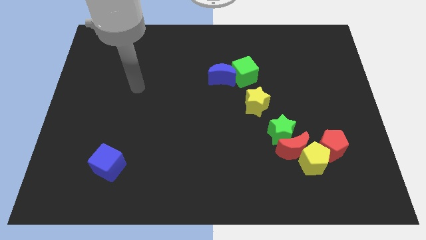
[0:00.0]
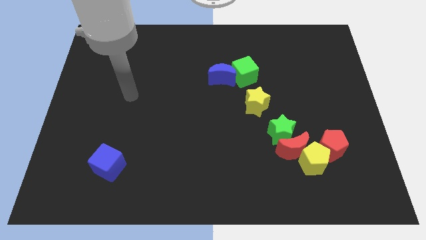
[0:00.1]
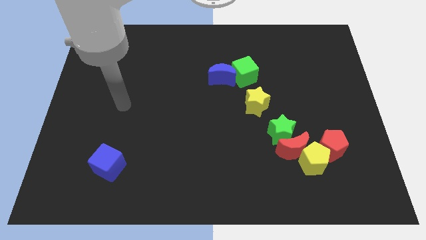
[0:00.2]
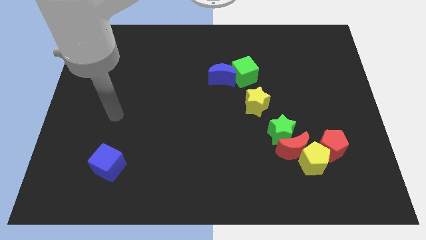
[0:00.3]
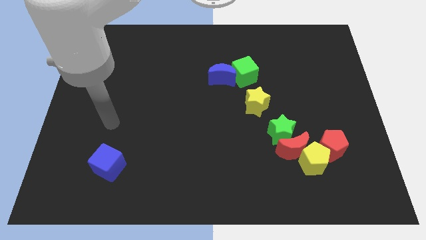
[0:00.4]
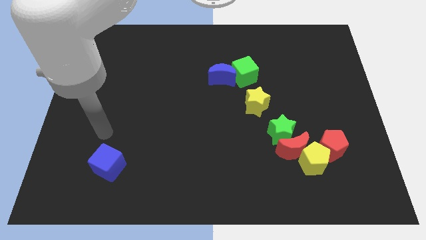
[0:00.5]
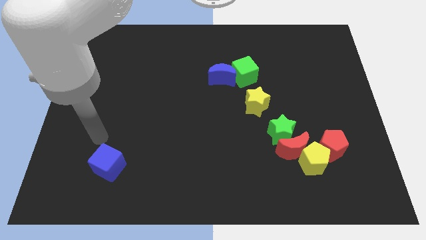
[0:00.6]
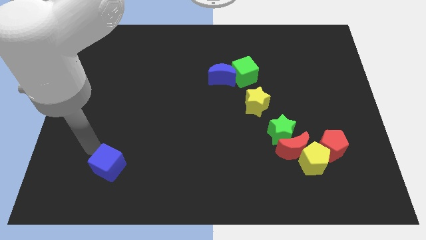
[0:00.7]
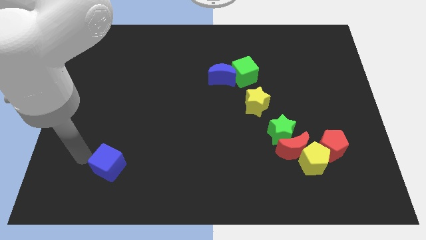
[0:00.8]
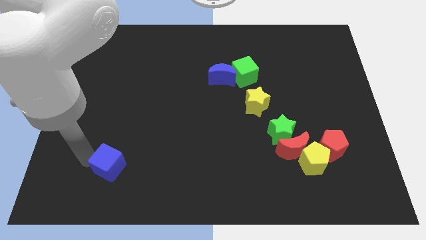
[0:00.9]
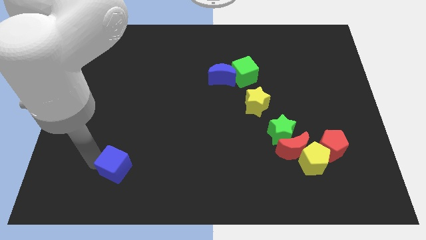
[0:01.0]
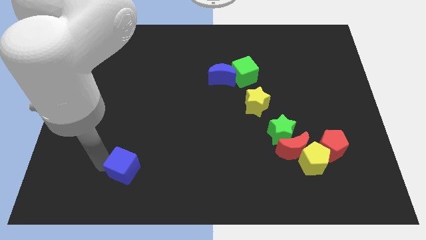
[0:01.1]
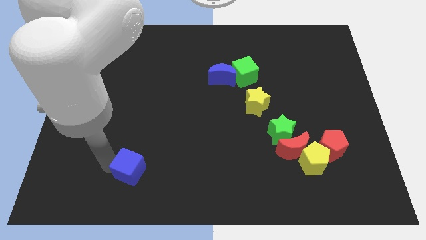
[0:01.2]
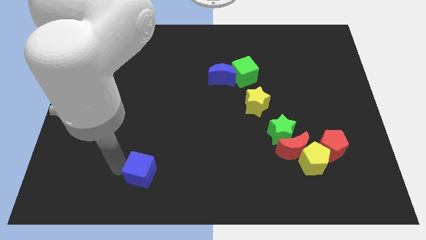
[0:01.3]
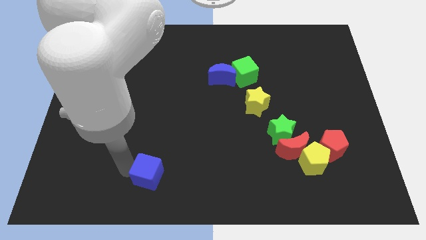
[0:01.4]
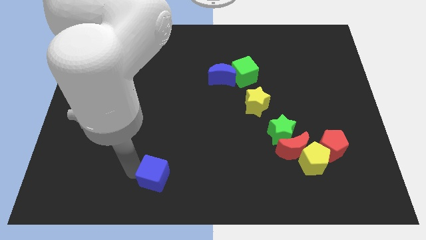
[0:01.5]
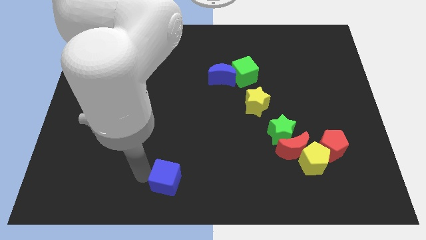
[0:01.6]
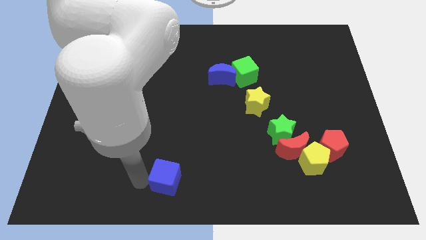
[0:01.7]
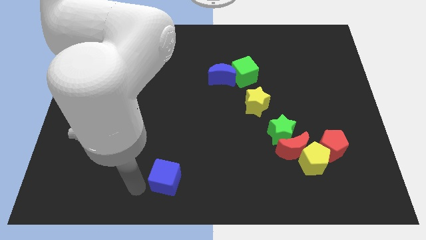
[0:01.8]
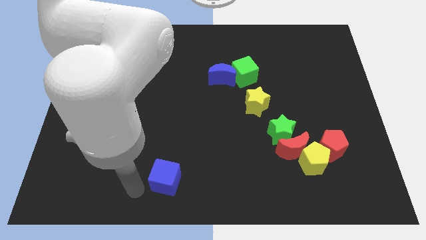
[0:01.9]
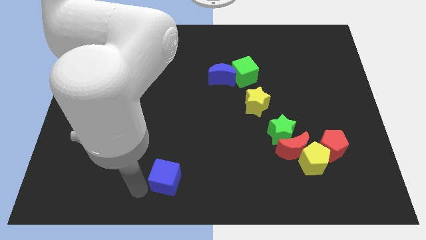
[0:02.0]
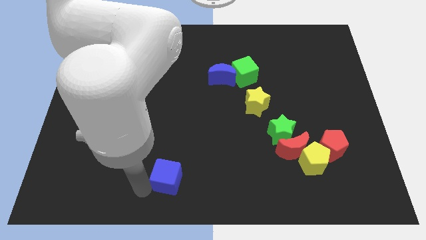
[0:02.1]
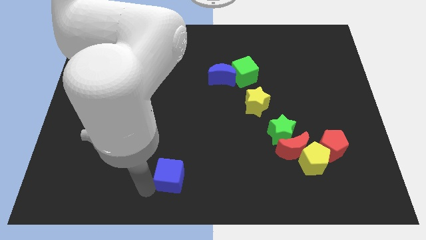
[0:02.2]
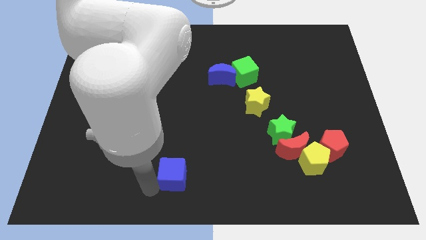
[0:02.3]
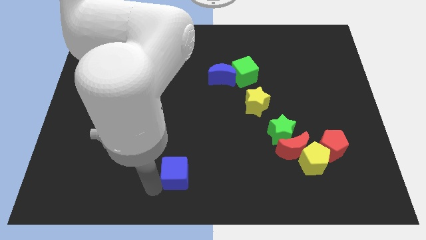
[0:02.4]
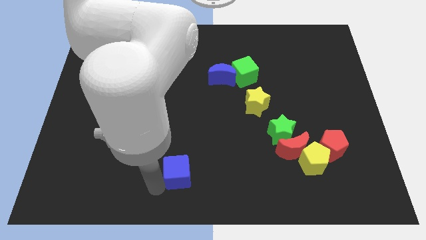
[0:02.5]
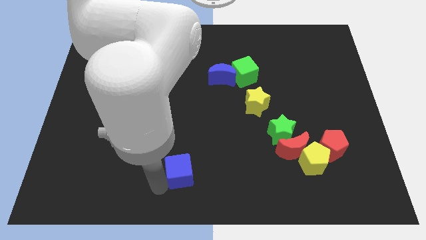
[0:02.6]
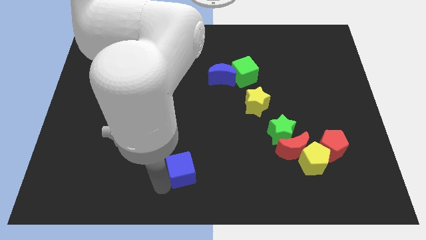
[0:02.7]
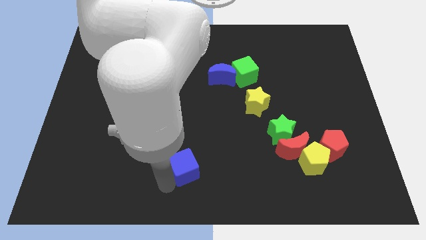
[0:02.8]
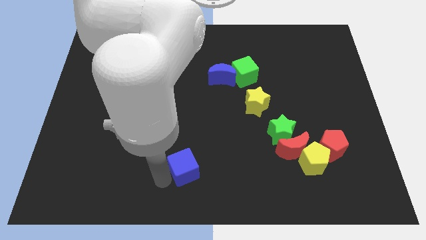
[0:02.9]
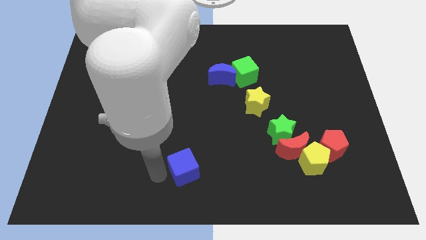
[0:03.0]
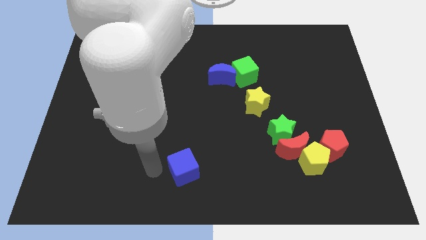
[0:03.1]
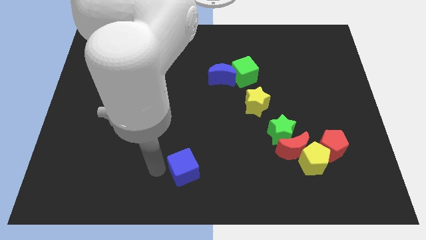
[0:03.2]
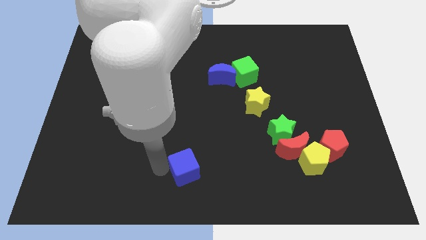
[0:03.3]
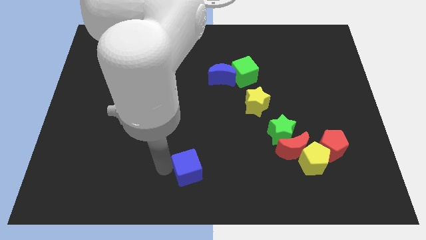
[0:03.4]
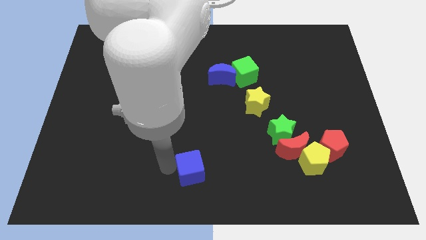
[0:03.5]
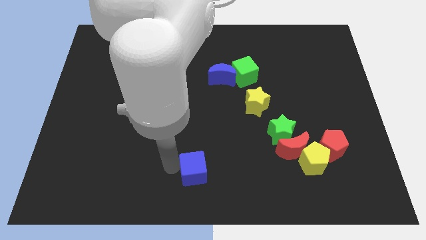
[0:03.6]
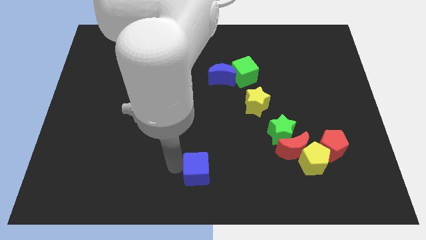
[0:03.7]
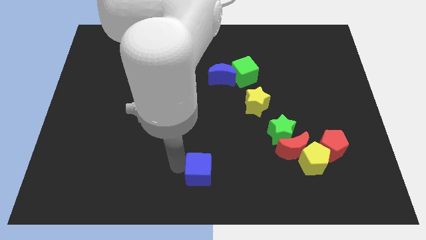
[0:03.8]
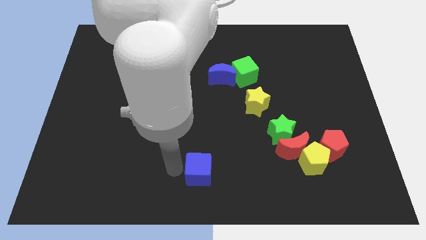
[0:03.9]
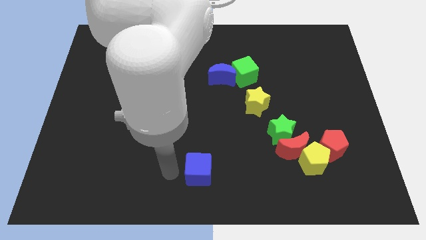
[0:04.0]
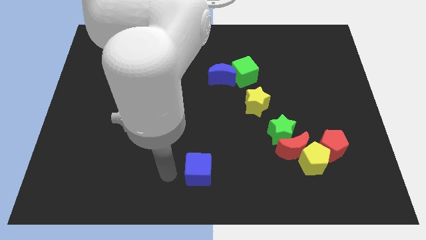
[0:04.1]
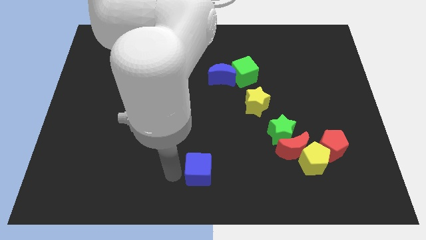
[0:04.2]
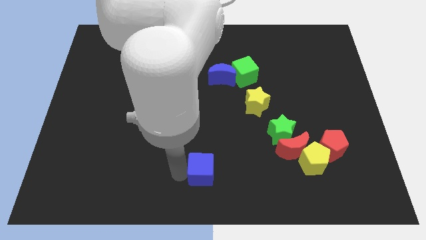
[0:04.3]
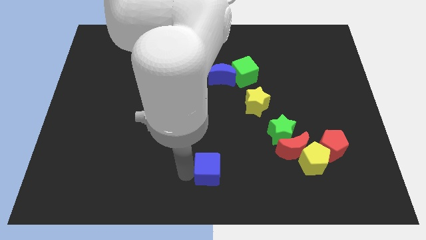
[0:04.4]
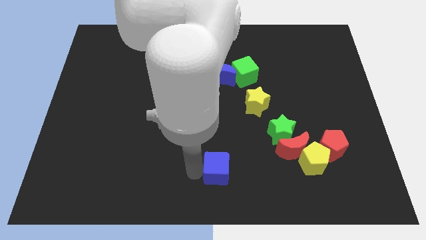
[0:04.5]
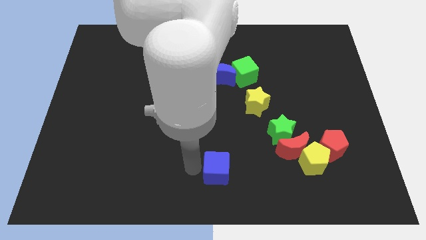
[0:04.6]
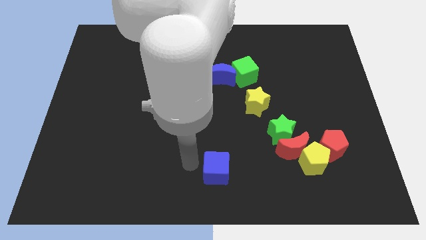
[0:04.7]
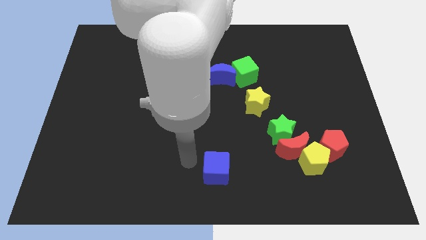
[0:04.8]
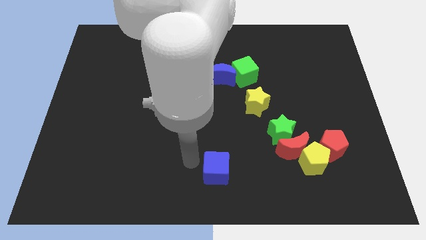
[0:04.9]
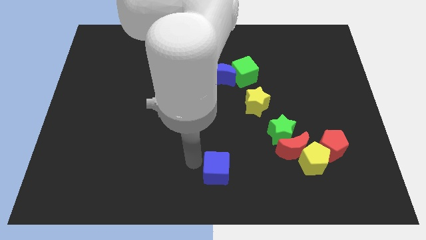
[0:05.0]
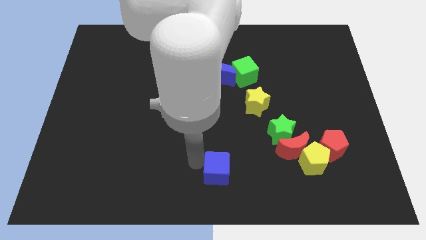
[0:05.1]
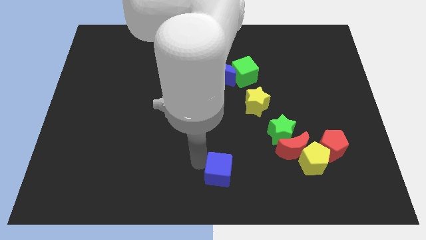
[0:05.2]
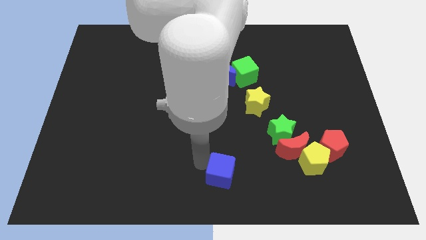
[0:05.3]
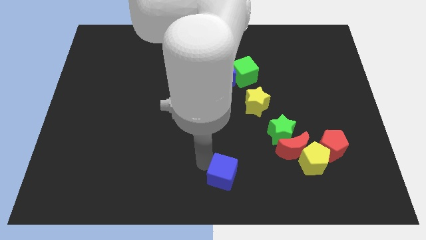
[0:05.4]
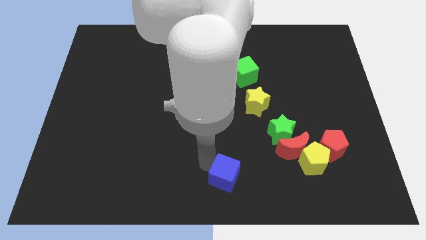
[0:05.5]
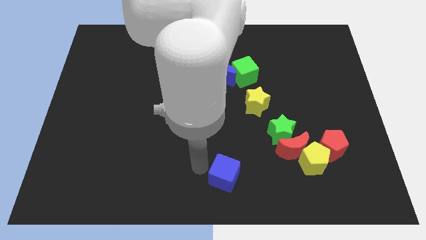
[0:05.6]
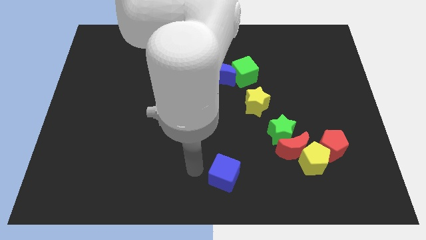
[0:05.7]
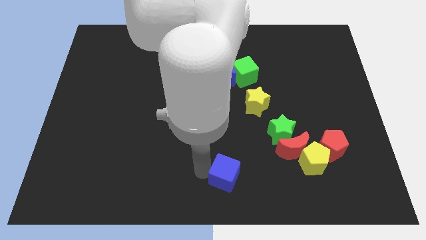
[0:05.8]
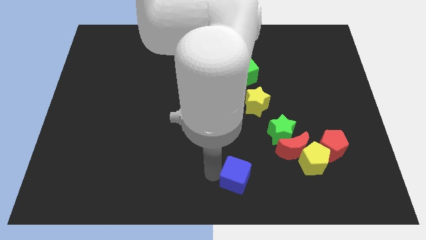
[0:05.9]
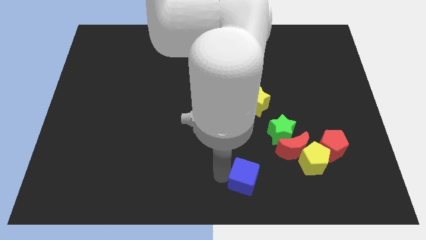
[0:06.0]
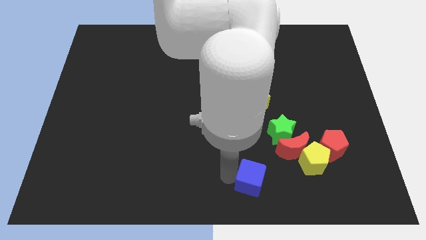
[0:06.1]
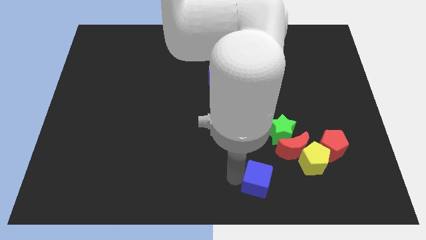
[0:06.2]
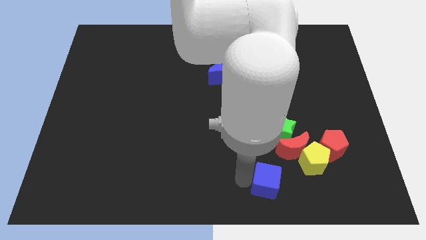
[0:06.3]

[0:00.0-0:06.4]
move the blue cube to the bottom left side of the yellow pentagon

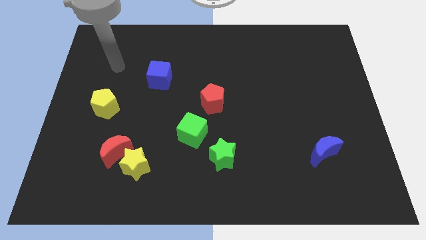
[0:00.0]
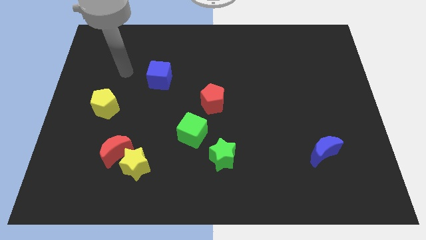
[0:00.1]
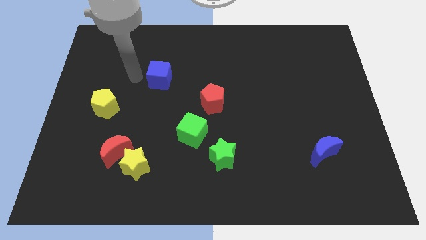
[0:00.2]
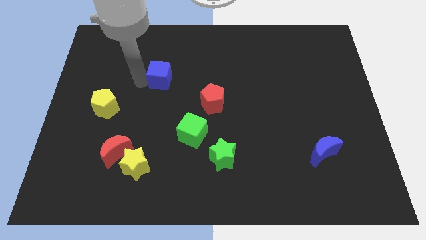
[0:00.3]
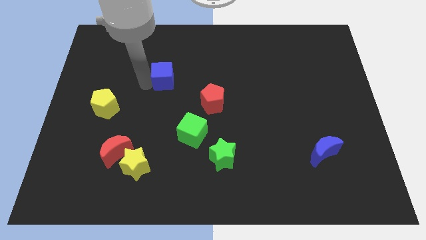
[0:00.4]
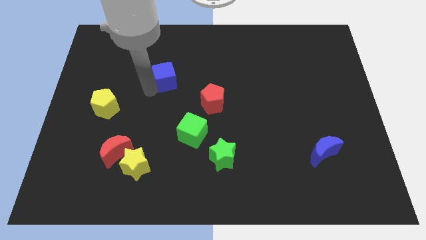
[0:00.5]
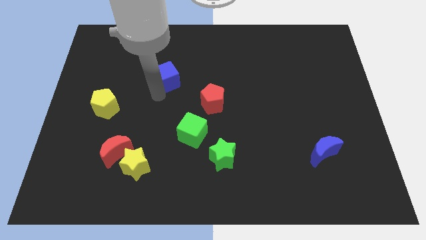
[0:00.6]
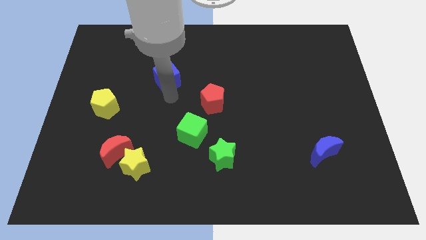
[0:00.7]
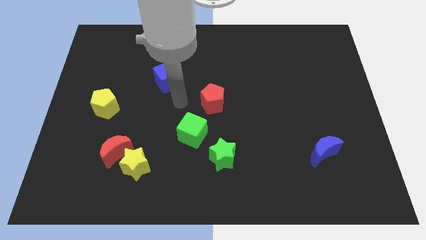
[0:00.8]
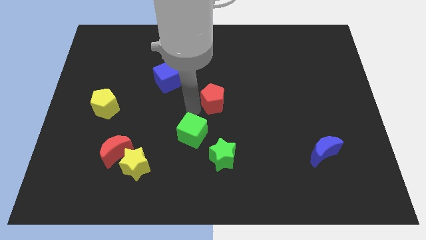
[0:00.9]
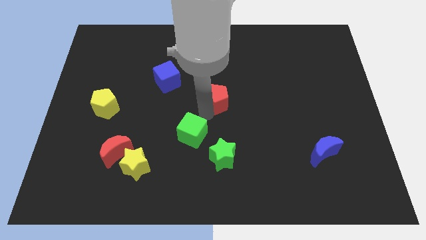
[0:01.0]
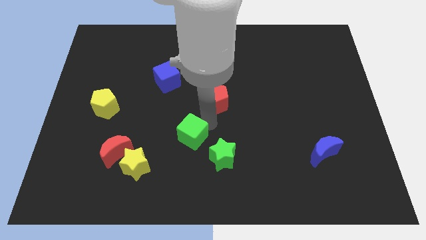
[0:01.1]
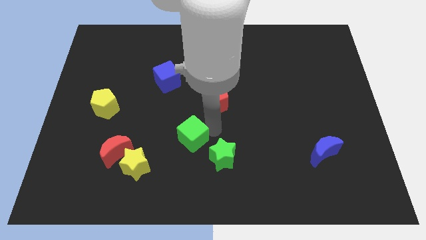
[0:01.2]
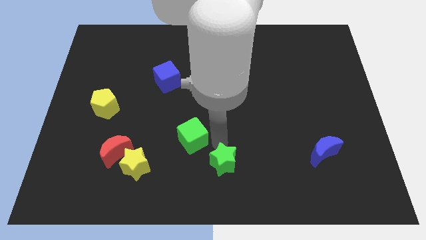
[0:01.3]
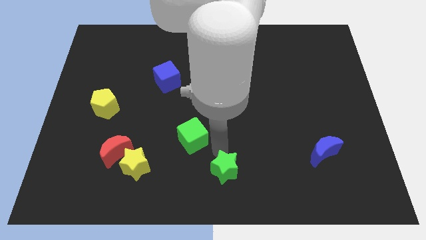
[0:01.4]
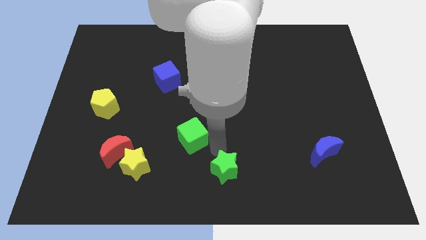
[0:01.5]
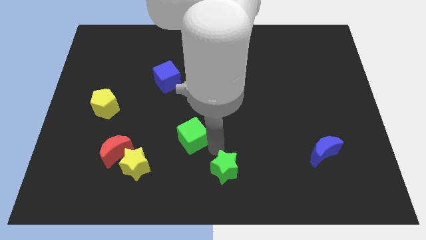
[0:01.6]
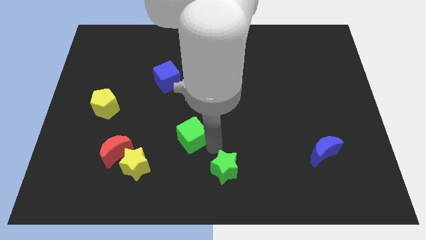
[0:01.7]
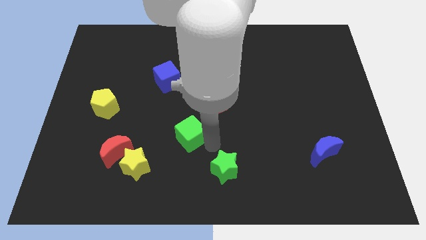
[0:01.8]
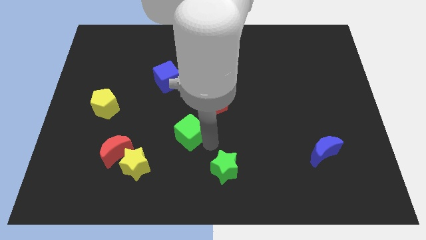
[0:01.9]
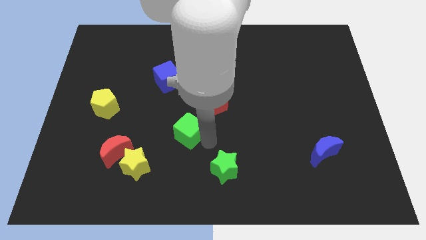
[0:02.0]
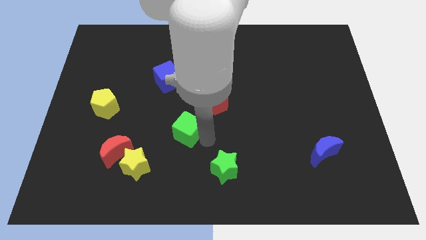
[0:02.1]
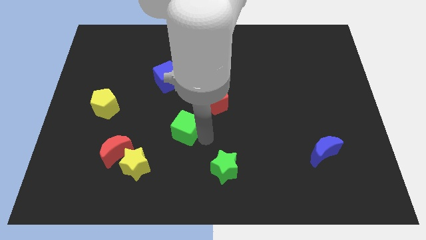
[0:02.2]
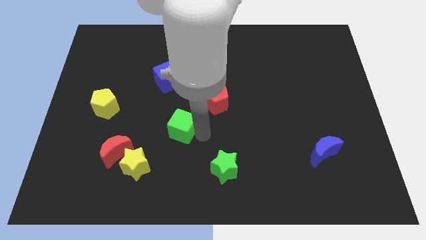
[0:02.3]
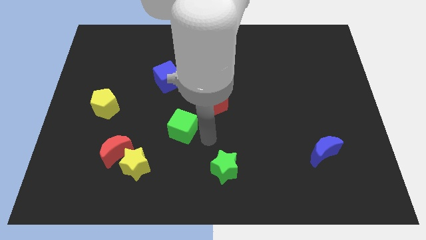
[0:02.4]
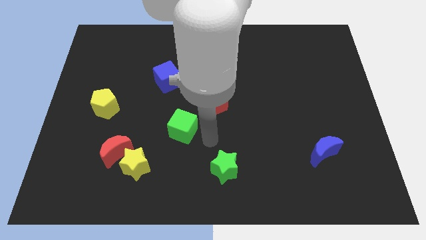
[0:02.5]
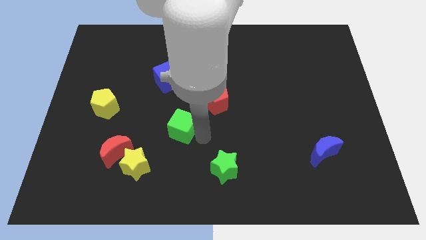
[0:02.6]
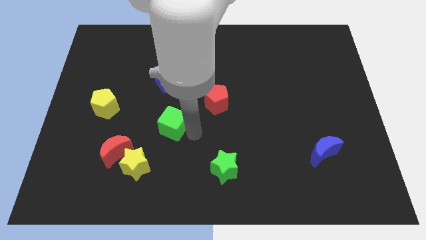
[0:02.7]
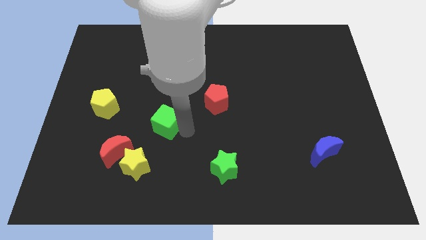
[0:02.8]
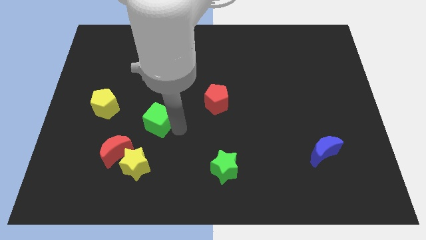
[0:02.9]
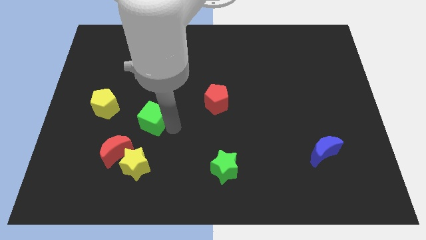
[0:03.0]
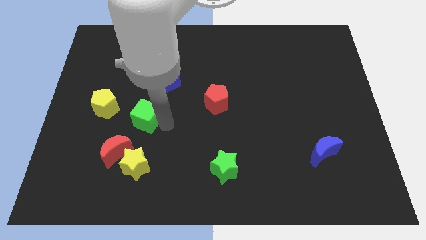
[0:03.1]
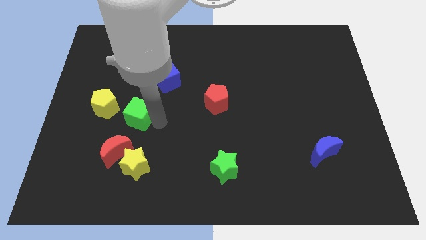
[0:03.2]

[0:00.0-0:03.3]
move the green cube to the top side of the red moon
